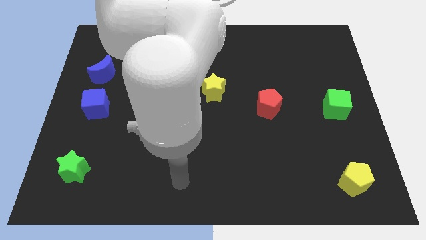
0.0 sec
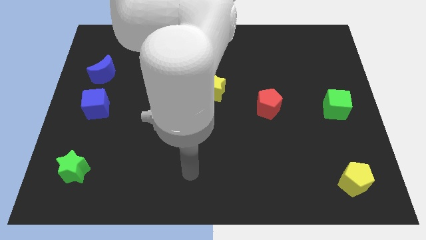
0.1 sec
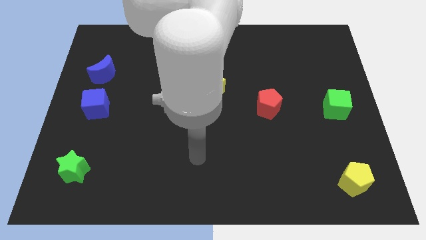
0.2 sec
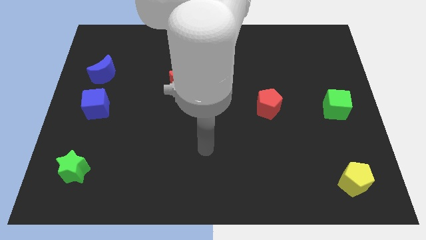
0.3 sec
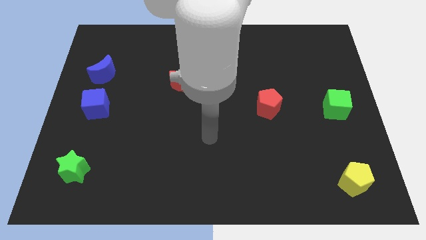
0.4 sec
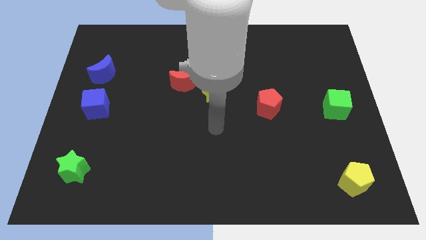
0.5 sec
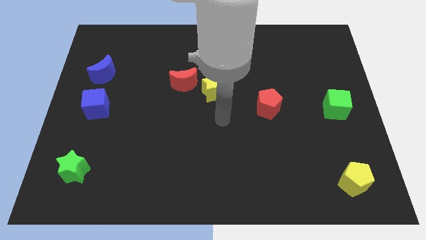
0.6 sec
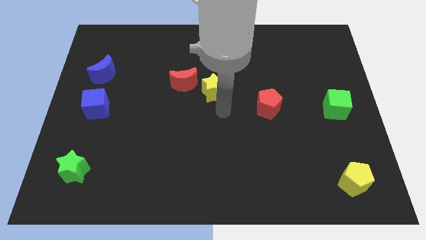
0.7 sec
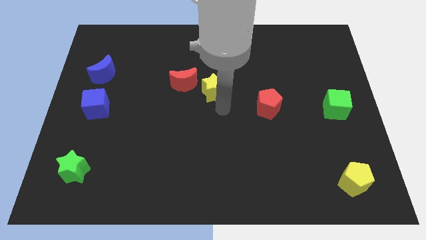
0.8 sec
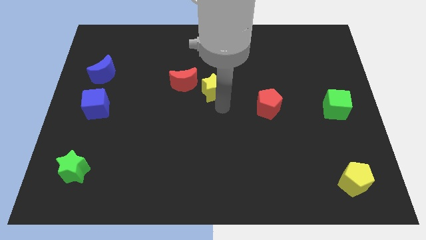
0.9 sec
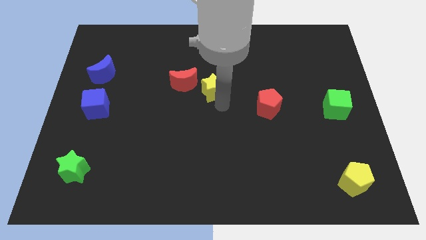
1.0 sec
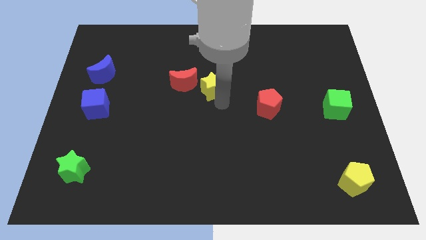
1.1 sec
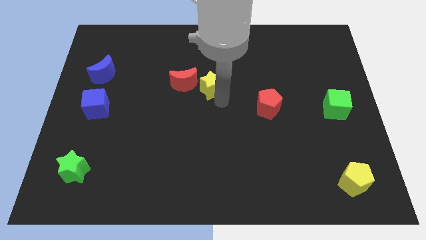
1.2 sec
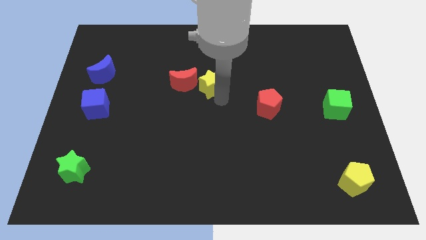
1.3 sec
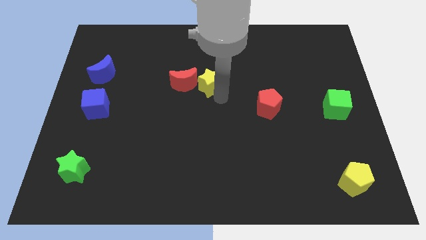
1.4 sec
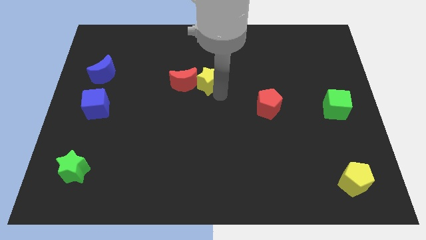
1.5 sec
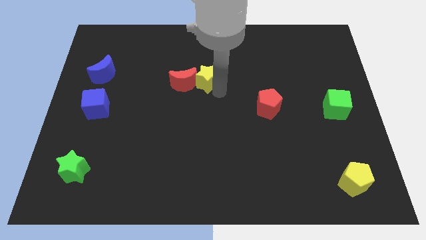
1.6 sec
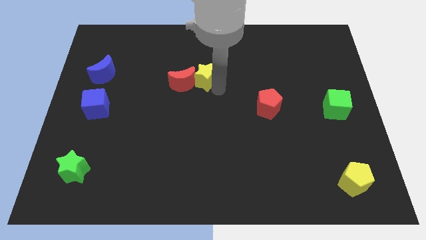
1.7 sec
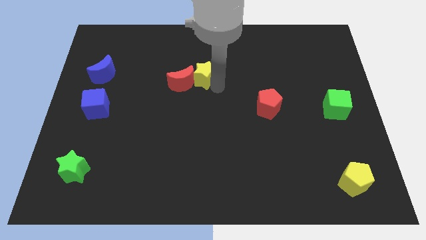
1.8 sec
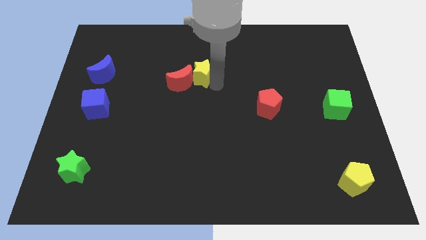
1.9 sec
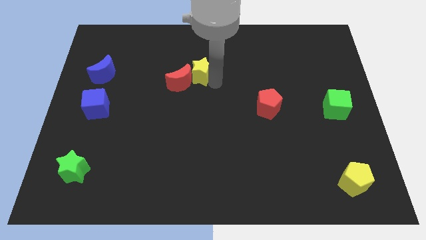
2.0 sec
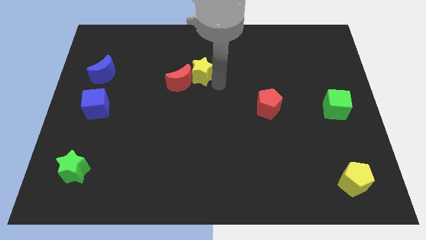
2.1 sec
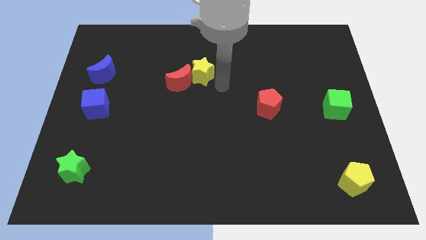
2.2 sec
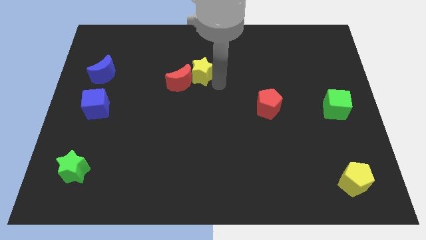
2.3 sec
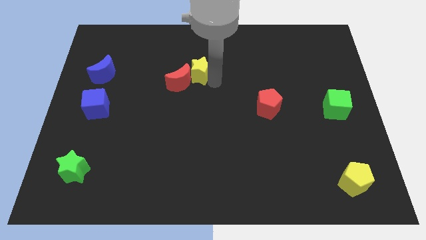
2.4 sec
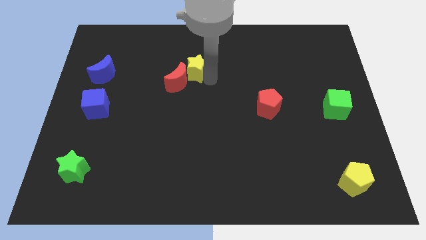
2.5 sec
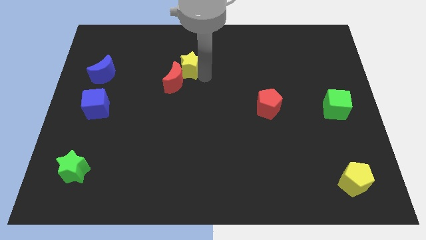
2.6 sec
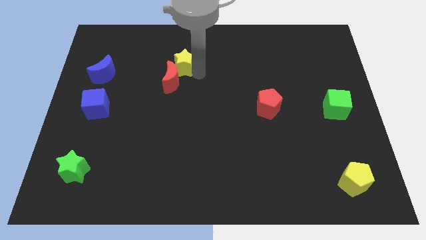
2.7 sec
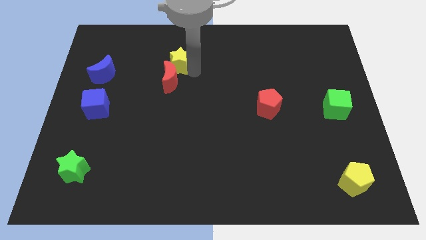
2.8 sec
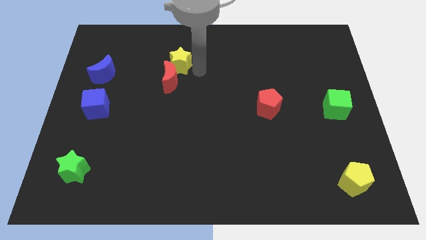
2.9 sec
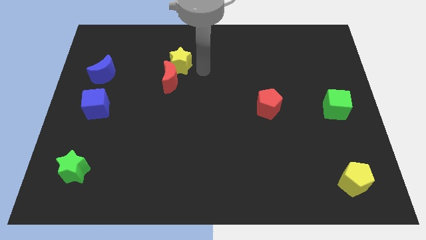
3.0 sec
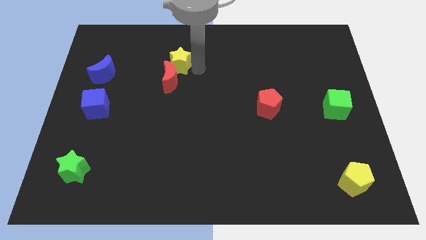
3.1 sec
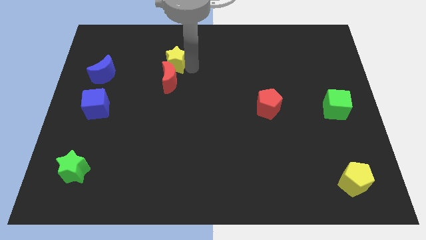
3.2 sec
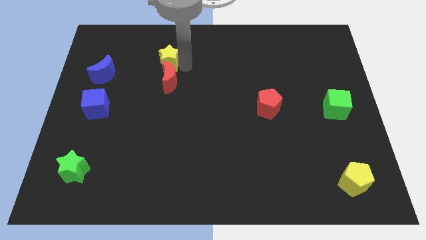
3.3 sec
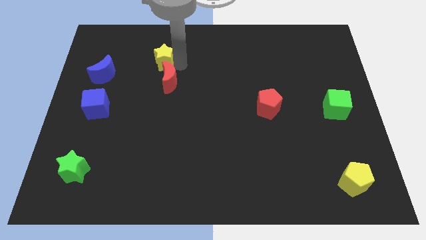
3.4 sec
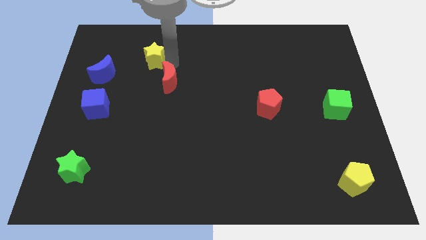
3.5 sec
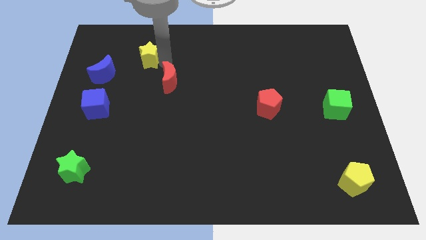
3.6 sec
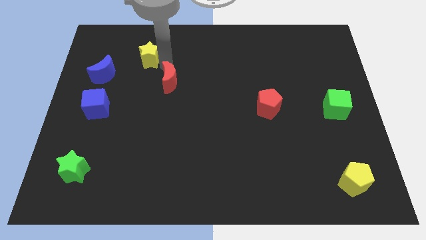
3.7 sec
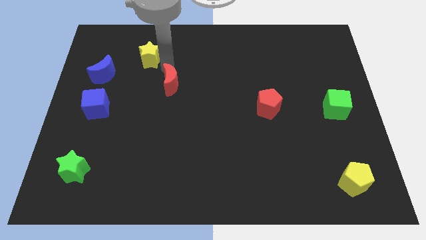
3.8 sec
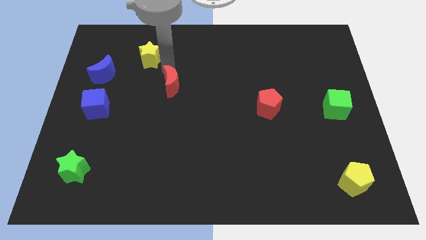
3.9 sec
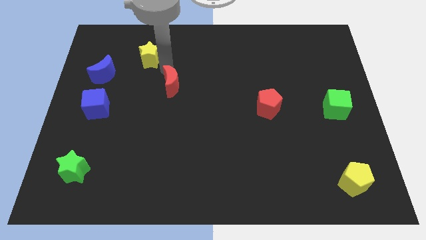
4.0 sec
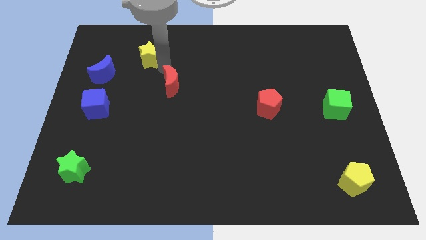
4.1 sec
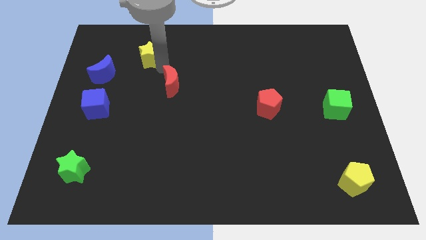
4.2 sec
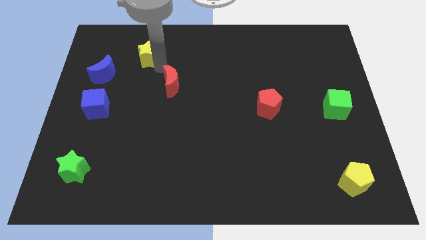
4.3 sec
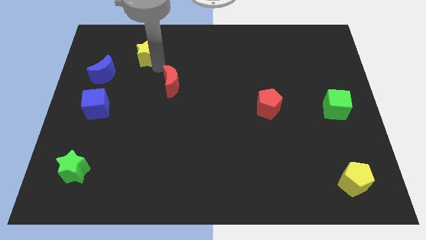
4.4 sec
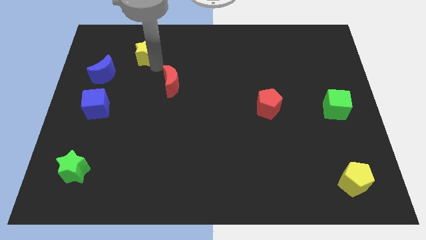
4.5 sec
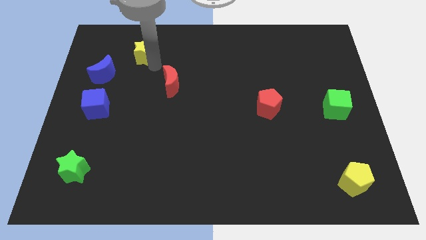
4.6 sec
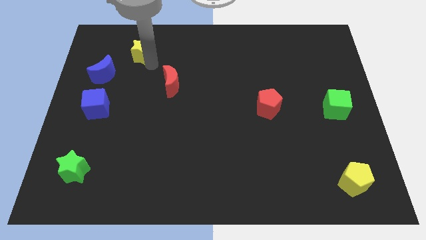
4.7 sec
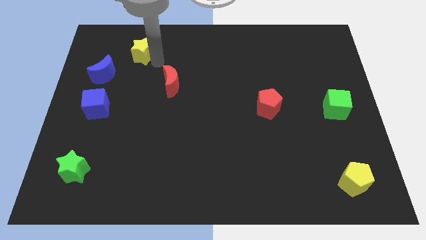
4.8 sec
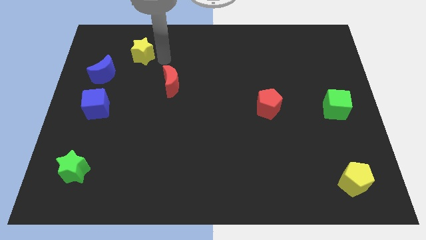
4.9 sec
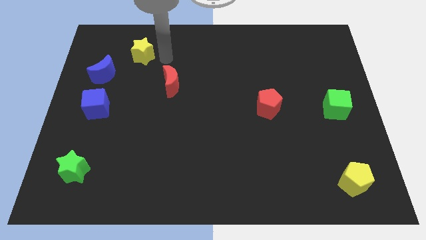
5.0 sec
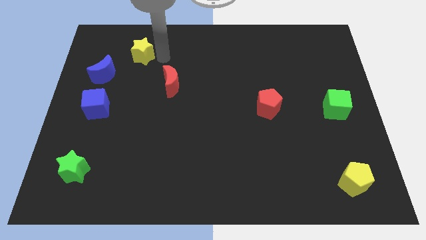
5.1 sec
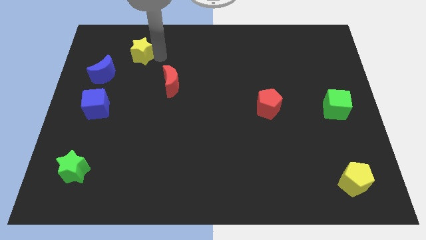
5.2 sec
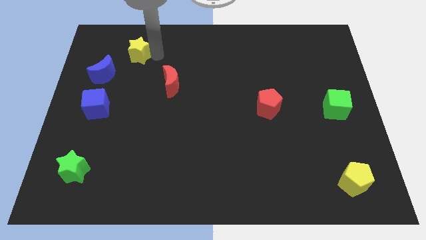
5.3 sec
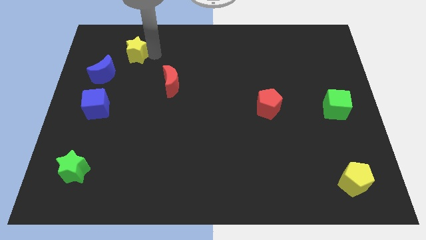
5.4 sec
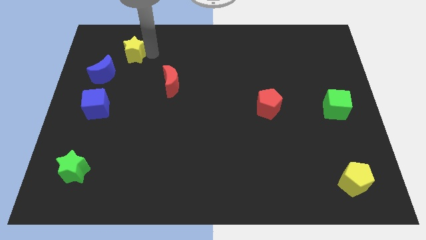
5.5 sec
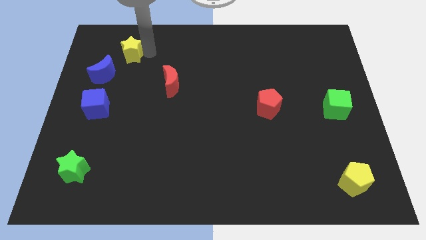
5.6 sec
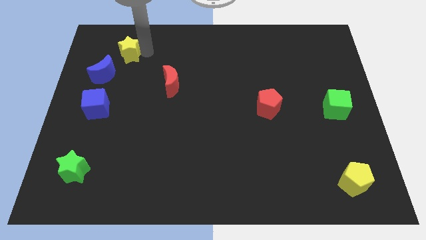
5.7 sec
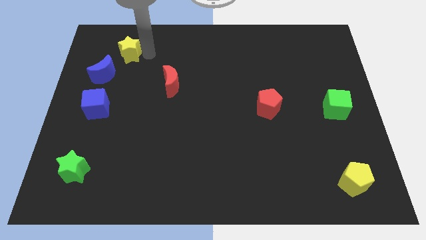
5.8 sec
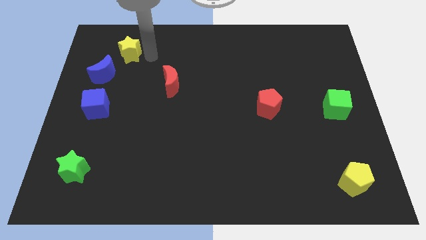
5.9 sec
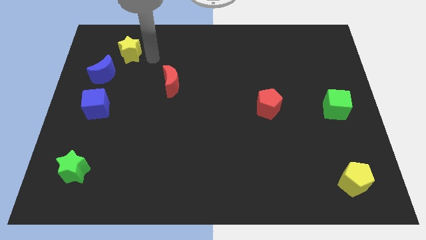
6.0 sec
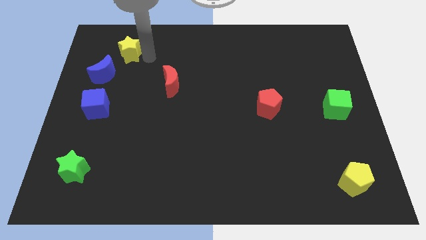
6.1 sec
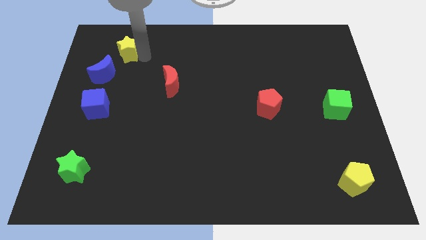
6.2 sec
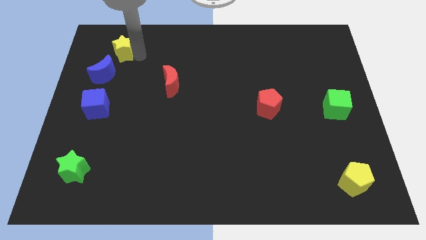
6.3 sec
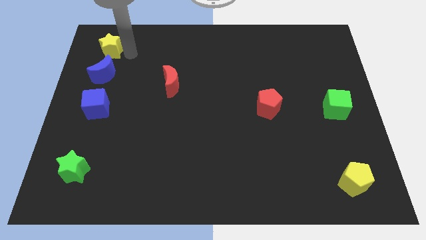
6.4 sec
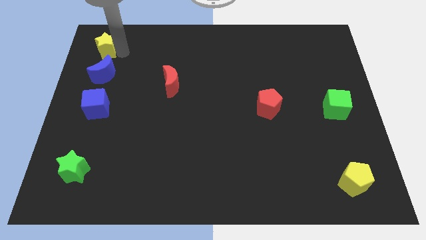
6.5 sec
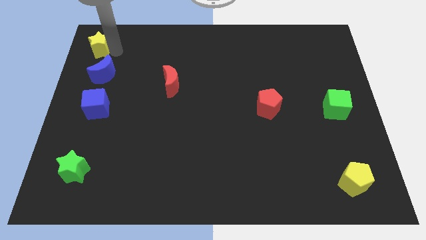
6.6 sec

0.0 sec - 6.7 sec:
slide the yellow star to the top left

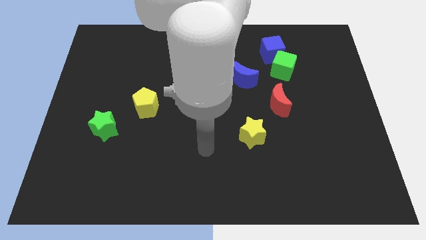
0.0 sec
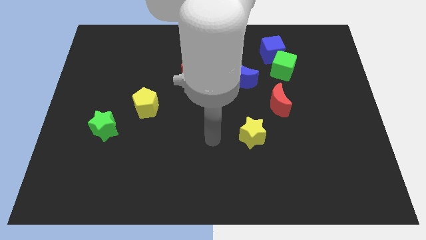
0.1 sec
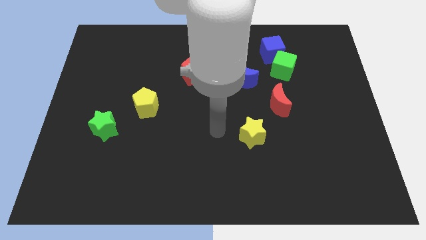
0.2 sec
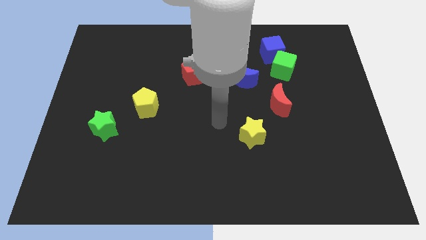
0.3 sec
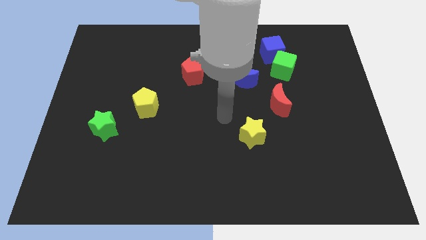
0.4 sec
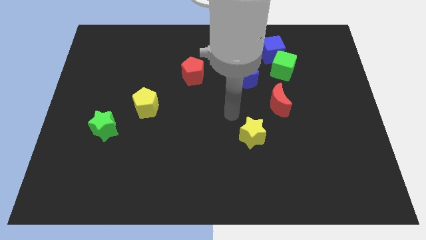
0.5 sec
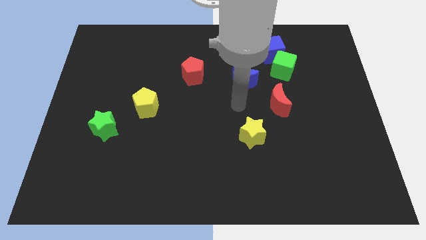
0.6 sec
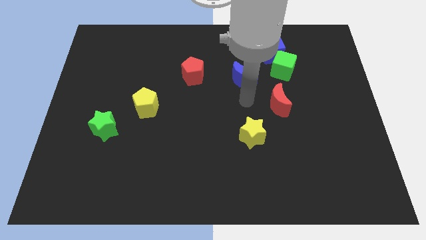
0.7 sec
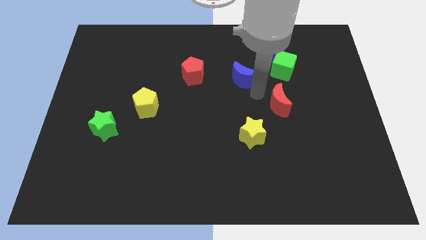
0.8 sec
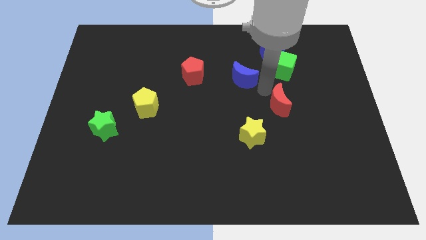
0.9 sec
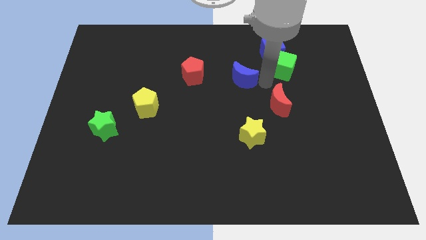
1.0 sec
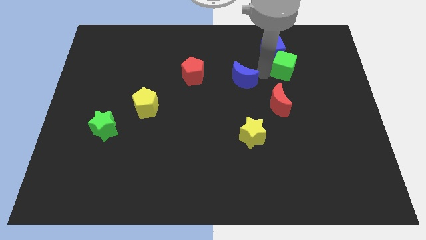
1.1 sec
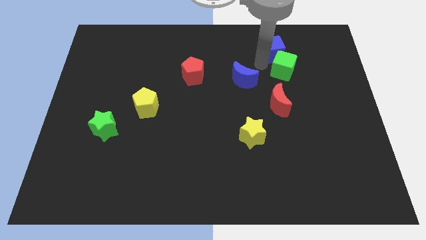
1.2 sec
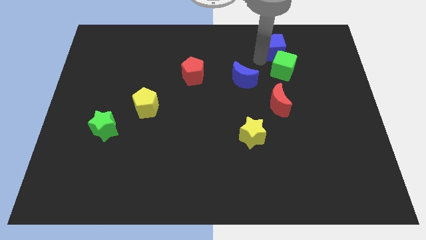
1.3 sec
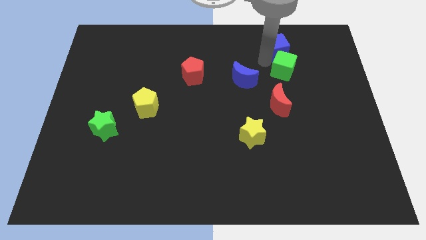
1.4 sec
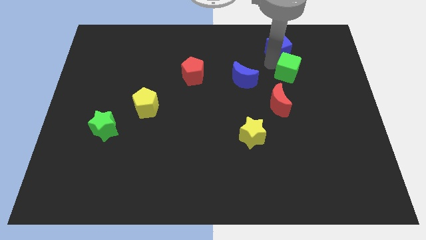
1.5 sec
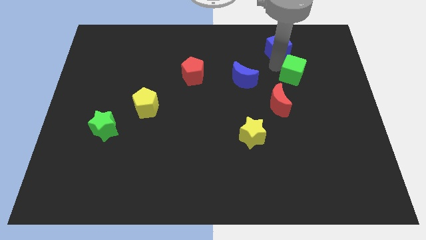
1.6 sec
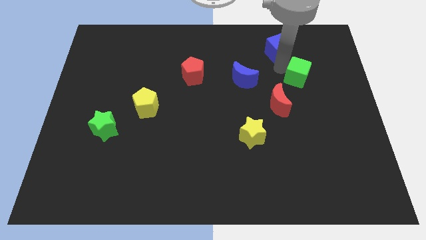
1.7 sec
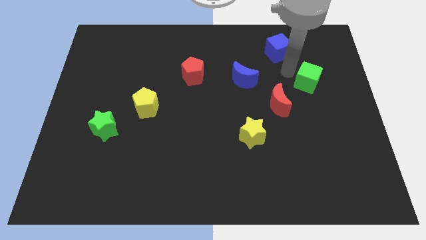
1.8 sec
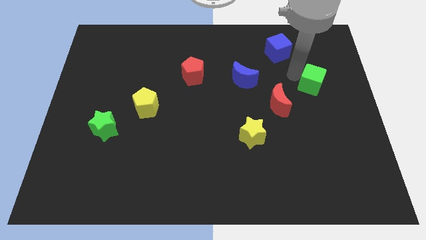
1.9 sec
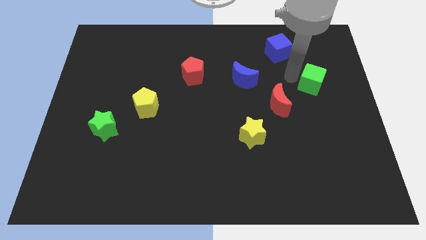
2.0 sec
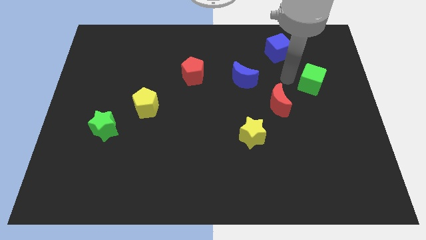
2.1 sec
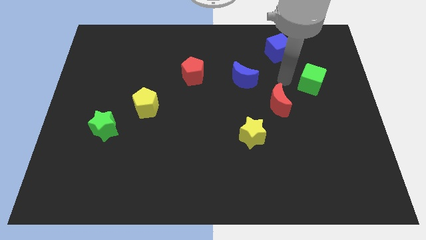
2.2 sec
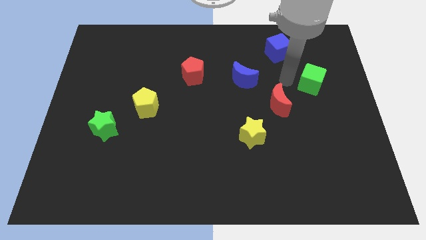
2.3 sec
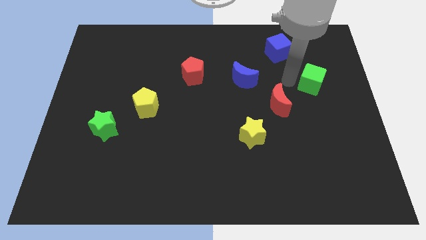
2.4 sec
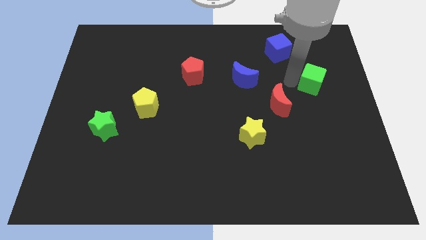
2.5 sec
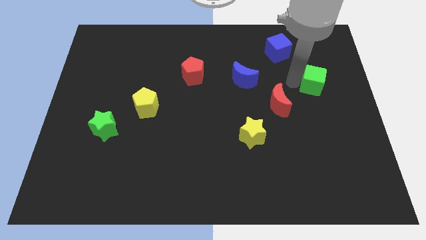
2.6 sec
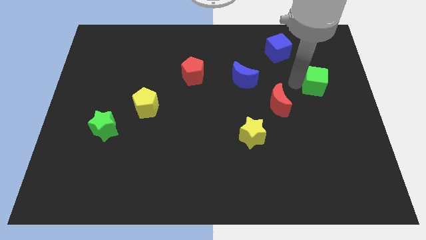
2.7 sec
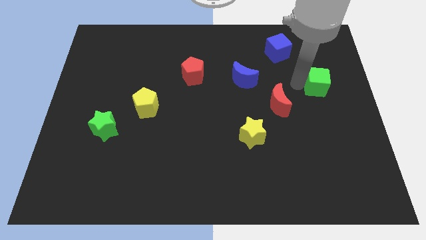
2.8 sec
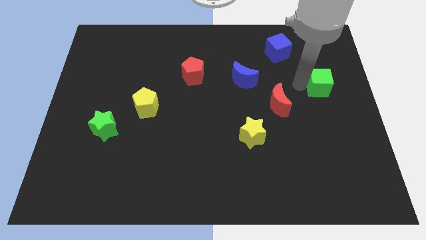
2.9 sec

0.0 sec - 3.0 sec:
move the green cube to the right side of the board
